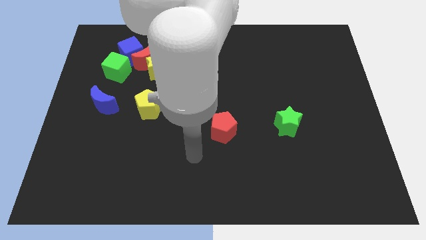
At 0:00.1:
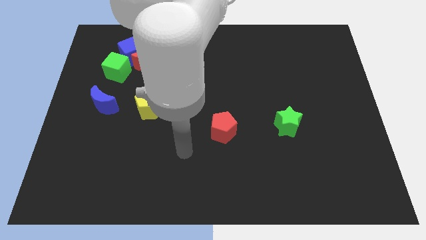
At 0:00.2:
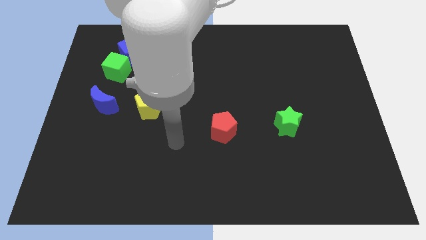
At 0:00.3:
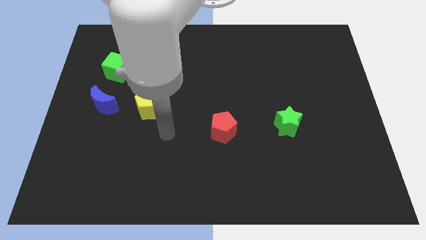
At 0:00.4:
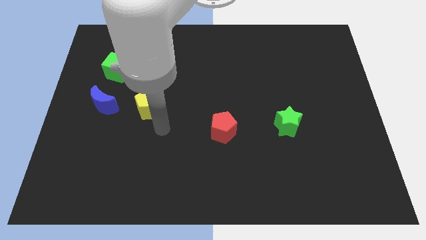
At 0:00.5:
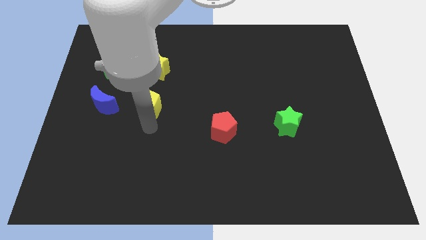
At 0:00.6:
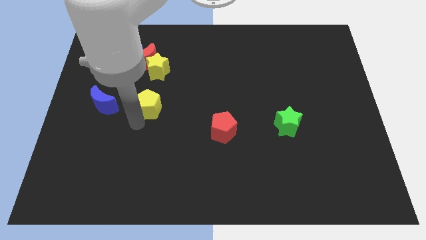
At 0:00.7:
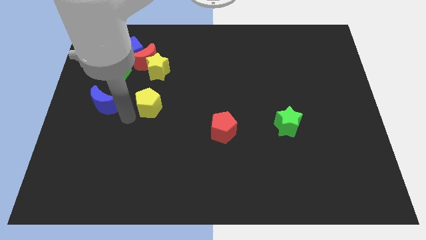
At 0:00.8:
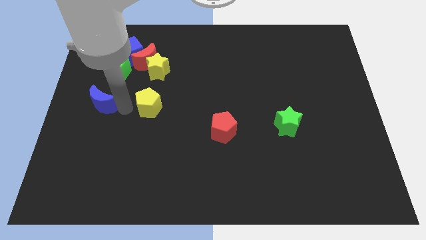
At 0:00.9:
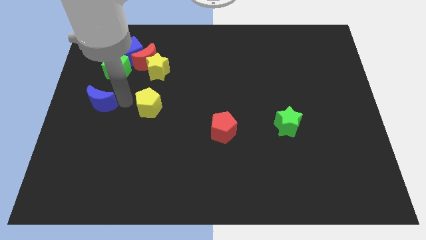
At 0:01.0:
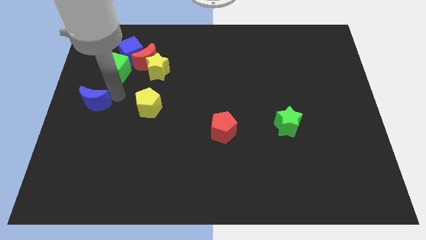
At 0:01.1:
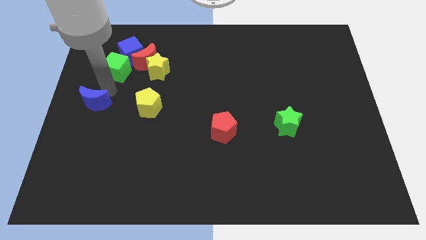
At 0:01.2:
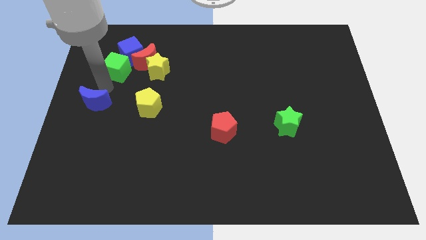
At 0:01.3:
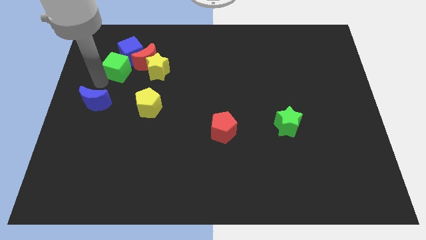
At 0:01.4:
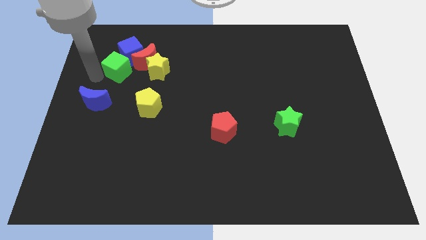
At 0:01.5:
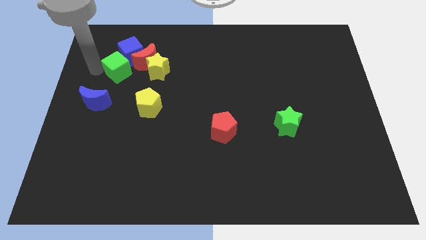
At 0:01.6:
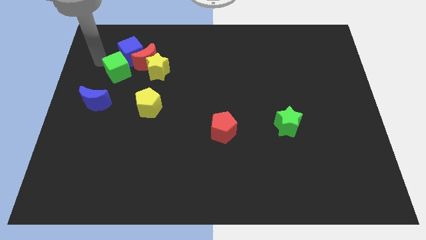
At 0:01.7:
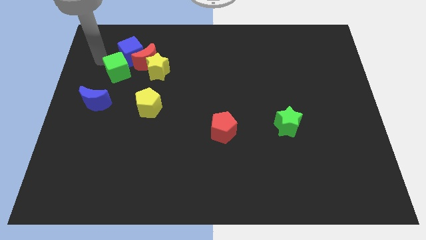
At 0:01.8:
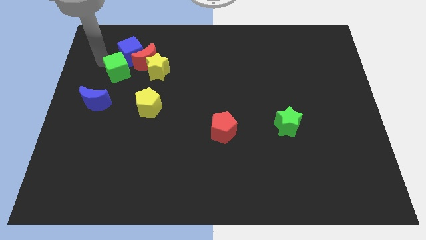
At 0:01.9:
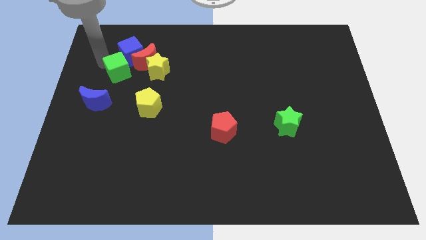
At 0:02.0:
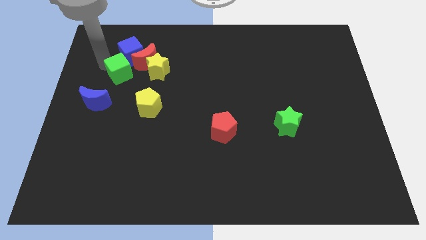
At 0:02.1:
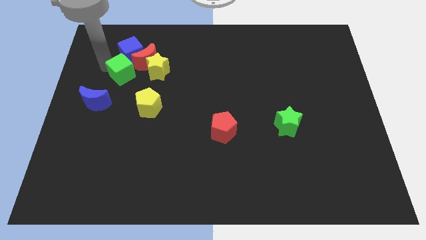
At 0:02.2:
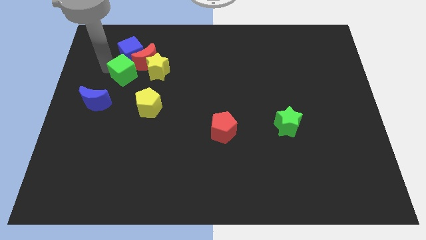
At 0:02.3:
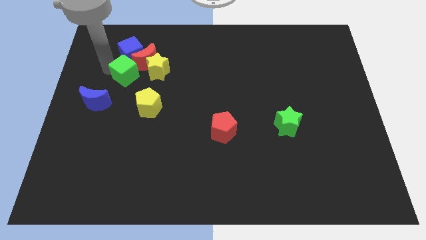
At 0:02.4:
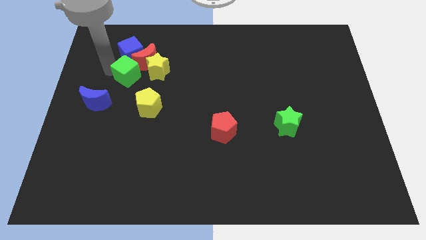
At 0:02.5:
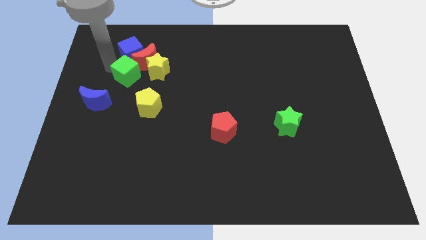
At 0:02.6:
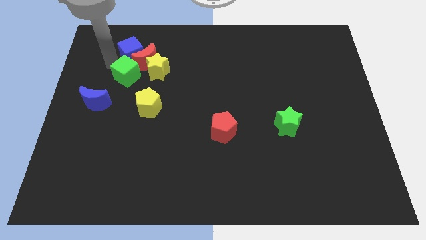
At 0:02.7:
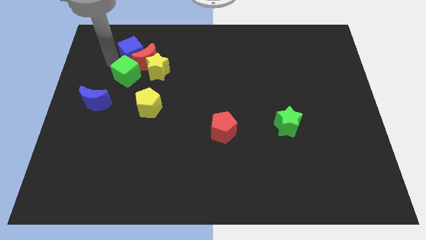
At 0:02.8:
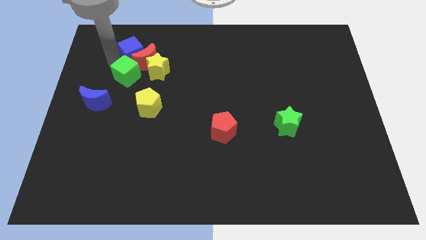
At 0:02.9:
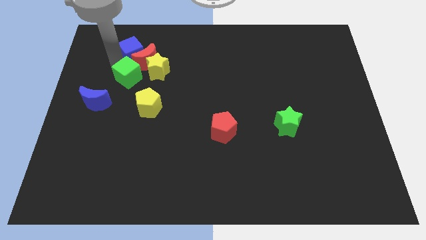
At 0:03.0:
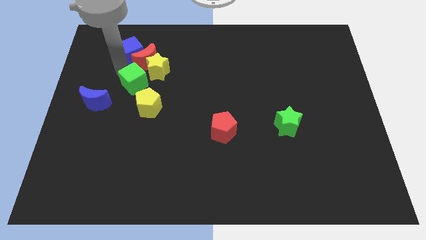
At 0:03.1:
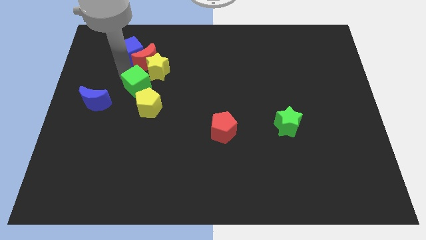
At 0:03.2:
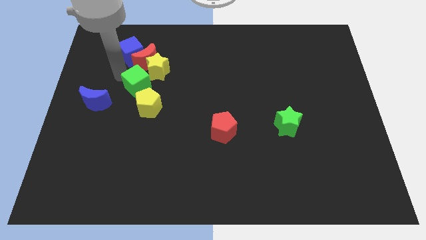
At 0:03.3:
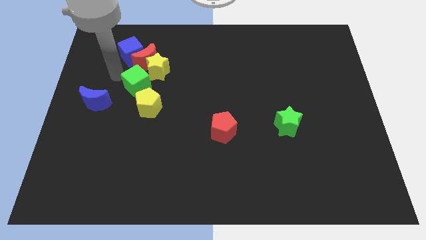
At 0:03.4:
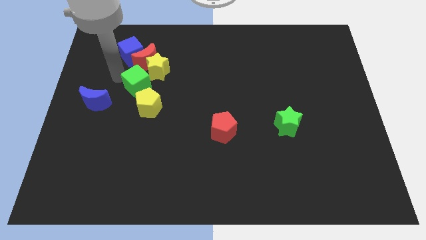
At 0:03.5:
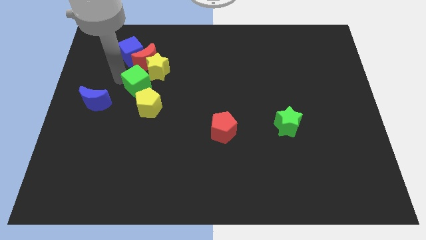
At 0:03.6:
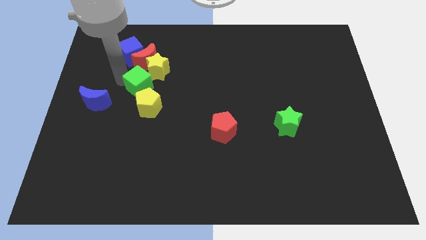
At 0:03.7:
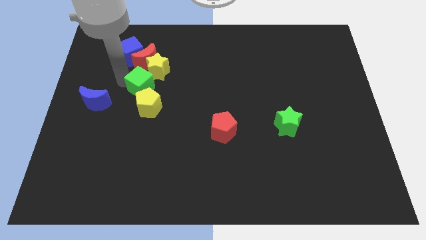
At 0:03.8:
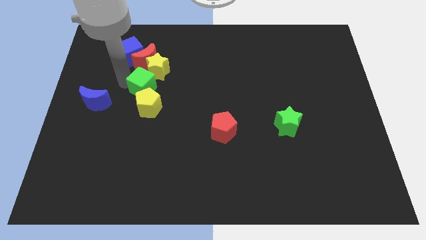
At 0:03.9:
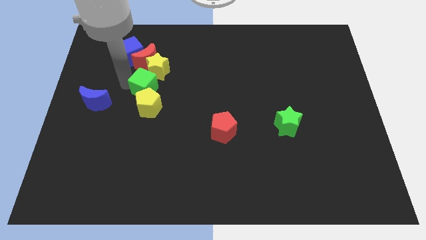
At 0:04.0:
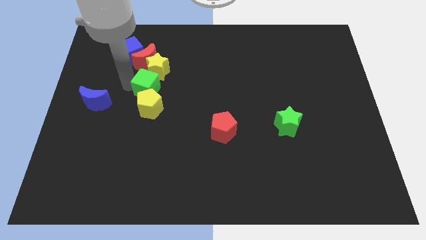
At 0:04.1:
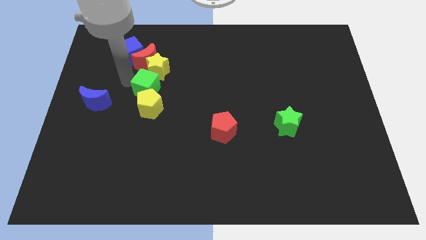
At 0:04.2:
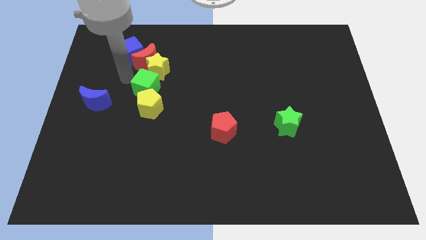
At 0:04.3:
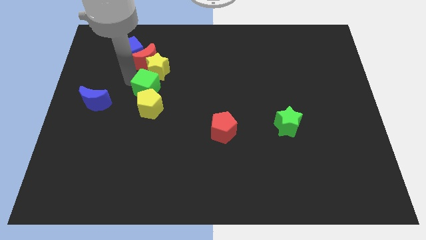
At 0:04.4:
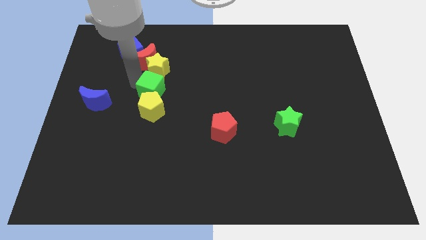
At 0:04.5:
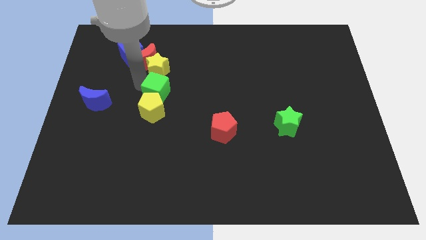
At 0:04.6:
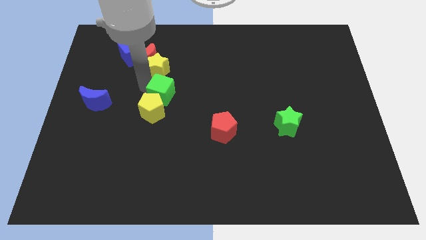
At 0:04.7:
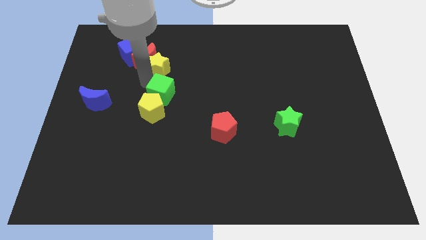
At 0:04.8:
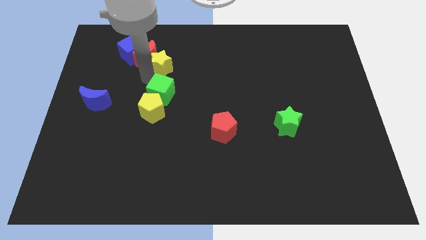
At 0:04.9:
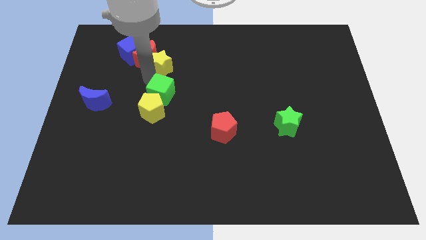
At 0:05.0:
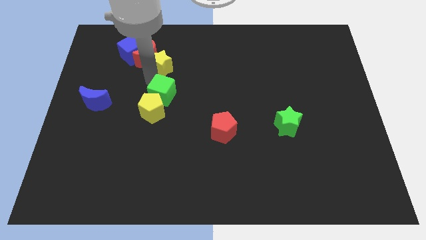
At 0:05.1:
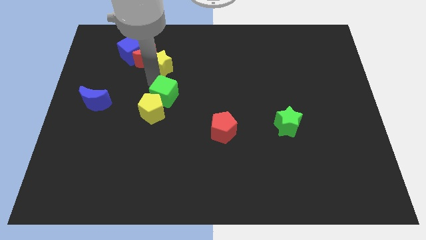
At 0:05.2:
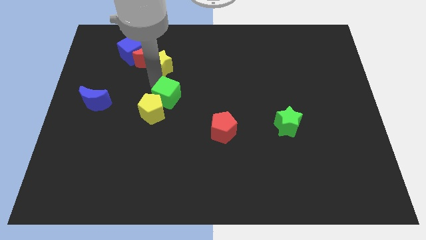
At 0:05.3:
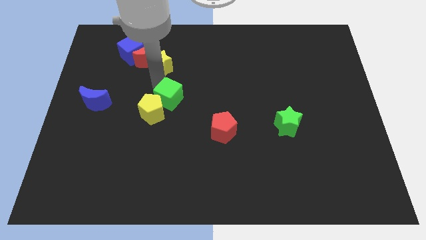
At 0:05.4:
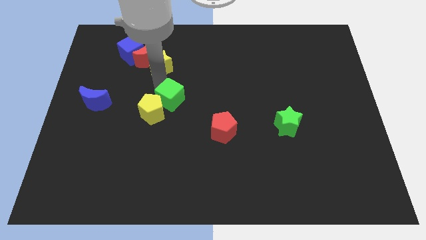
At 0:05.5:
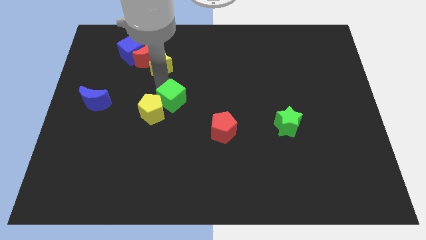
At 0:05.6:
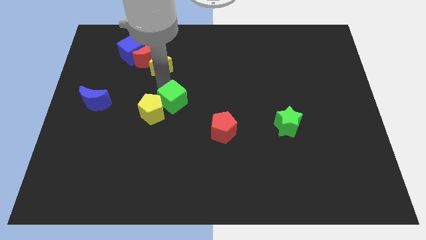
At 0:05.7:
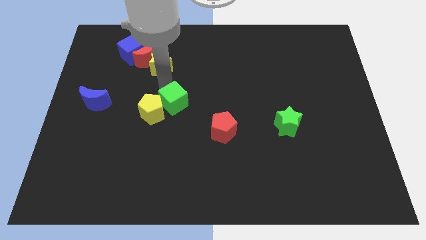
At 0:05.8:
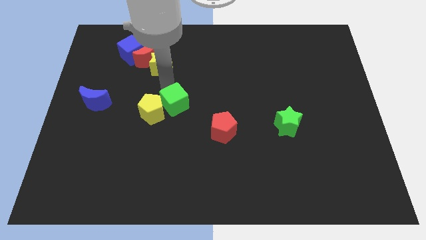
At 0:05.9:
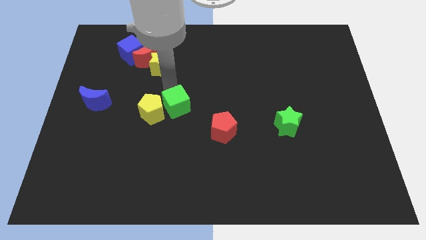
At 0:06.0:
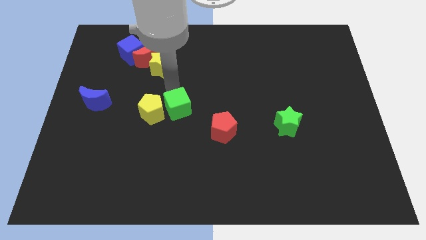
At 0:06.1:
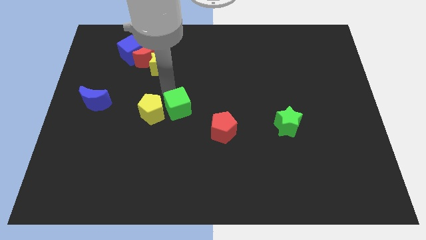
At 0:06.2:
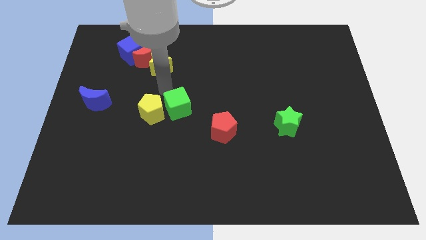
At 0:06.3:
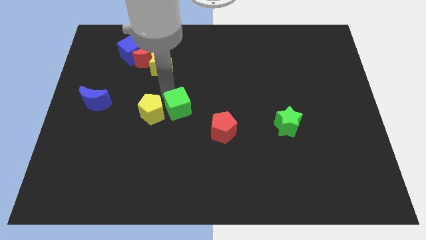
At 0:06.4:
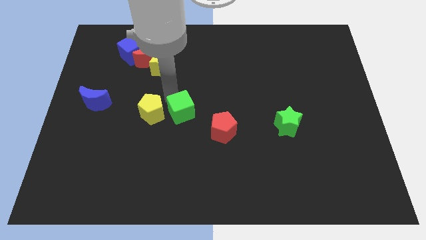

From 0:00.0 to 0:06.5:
slide the green cube diagonally downwards and right

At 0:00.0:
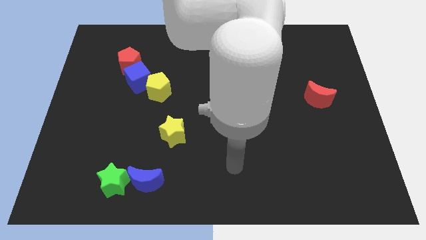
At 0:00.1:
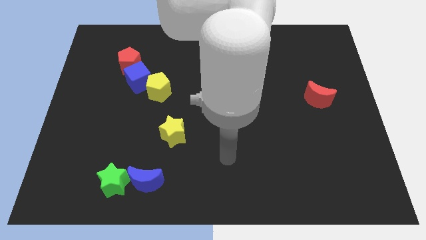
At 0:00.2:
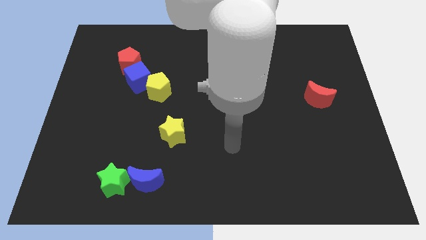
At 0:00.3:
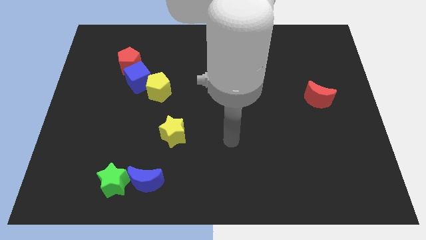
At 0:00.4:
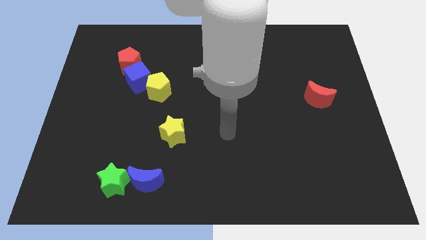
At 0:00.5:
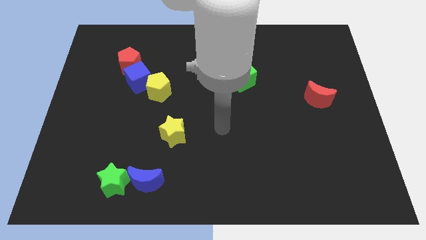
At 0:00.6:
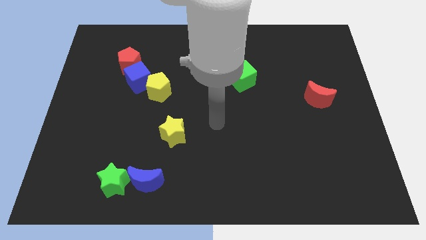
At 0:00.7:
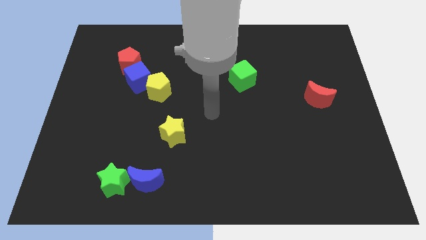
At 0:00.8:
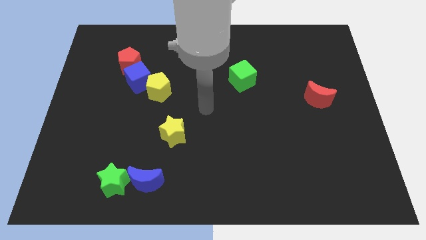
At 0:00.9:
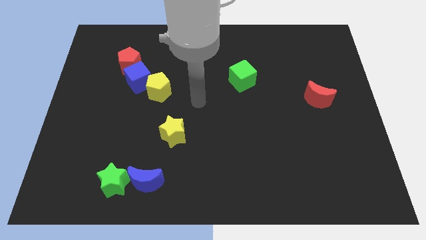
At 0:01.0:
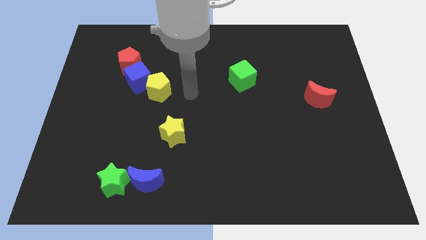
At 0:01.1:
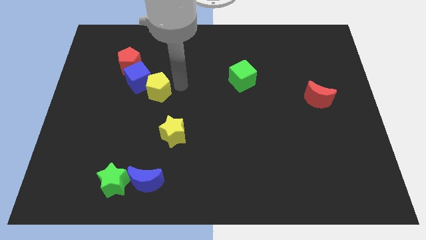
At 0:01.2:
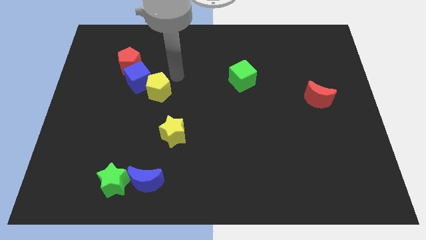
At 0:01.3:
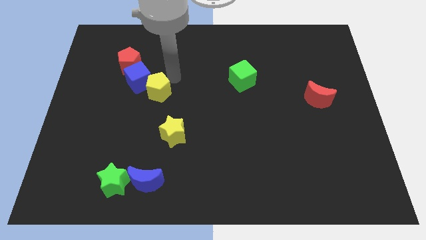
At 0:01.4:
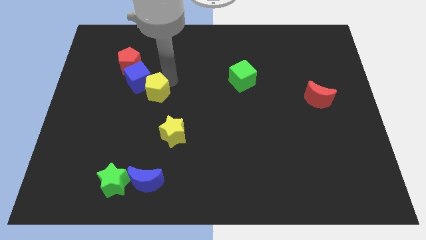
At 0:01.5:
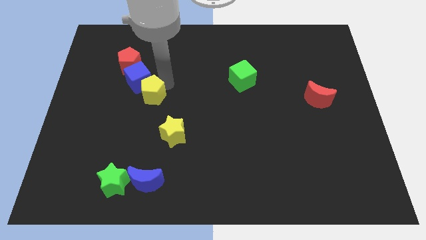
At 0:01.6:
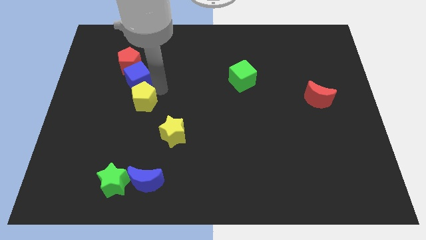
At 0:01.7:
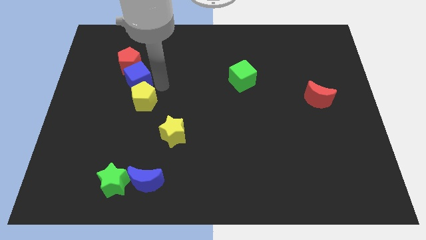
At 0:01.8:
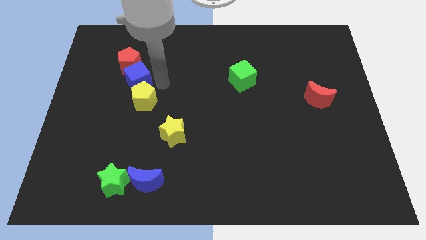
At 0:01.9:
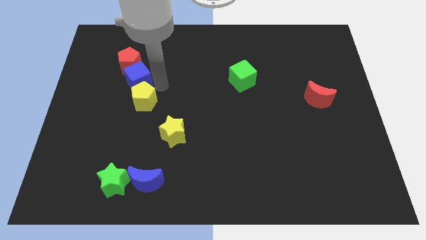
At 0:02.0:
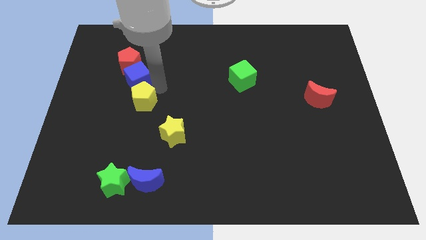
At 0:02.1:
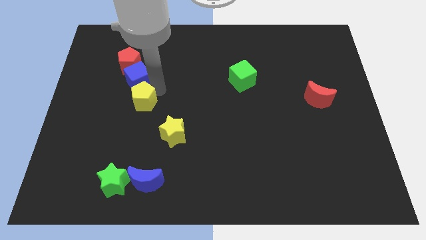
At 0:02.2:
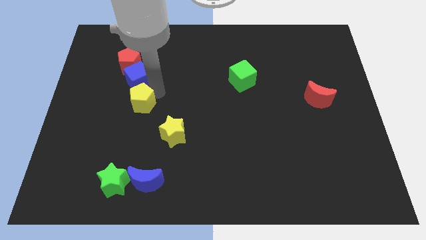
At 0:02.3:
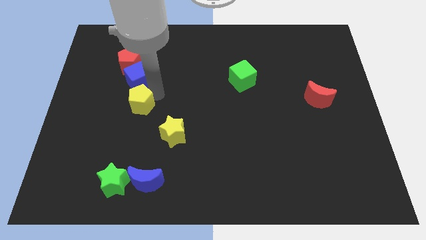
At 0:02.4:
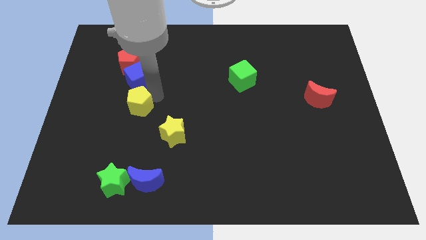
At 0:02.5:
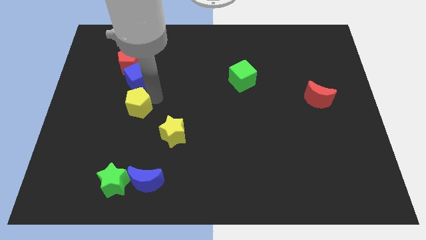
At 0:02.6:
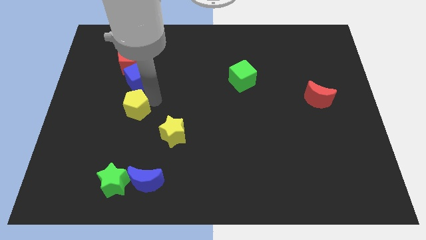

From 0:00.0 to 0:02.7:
slightly slide the yellow pentagon diagonally down and to the left
